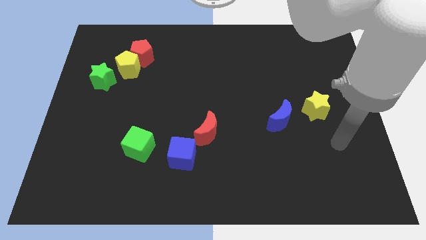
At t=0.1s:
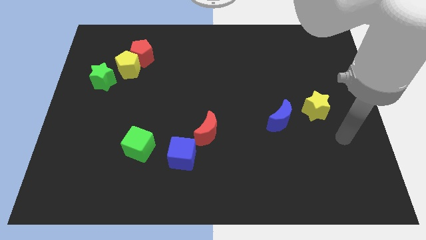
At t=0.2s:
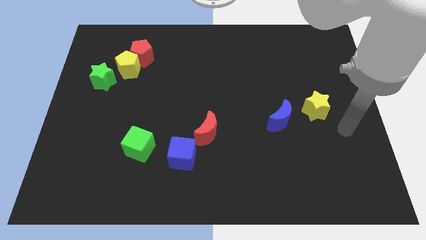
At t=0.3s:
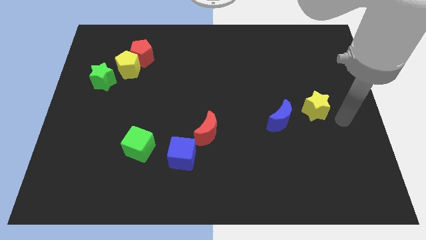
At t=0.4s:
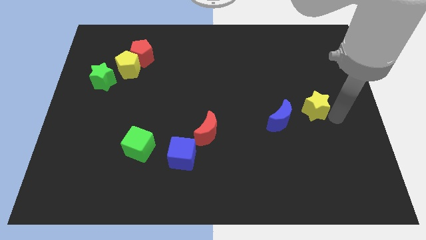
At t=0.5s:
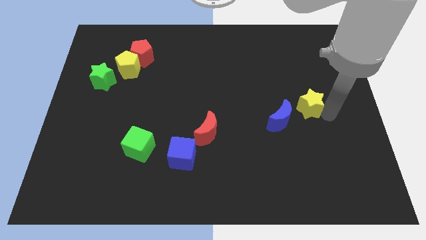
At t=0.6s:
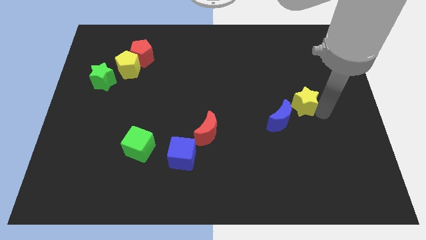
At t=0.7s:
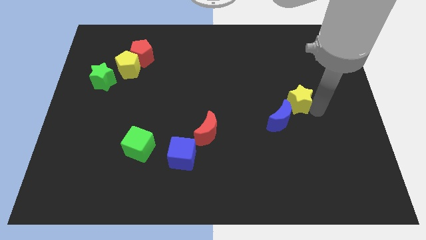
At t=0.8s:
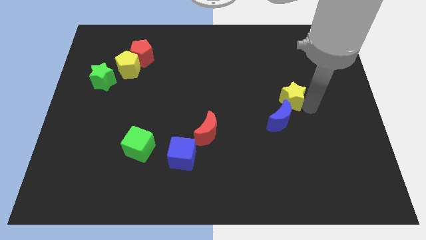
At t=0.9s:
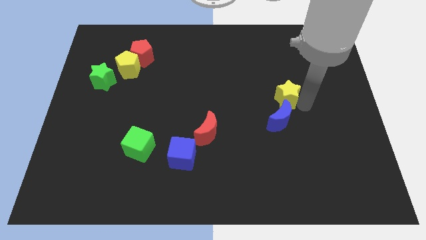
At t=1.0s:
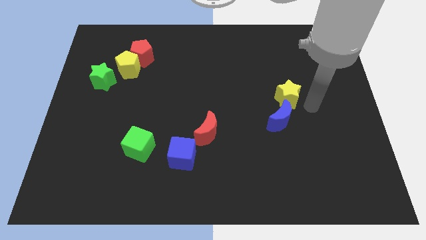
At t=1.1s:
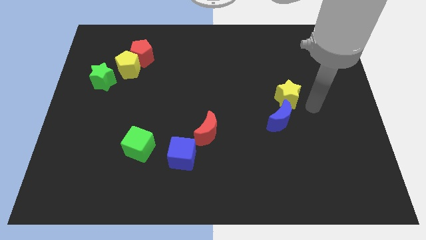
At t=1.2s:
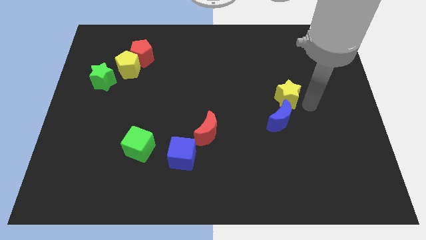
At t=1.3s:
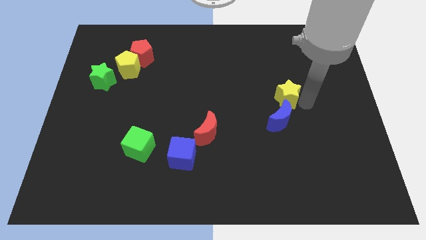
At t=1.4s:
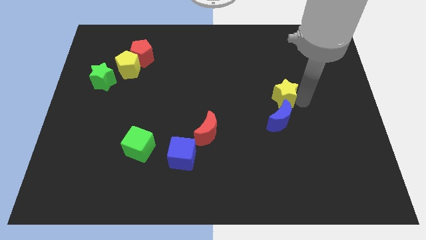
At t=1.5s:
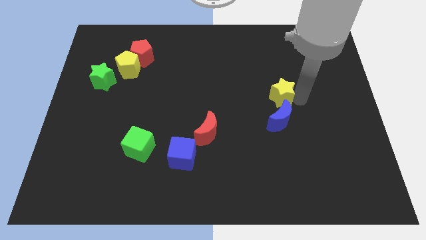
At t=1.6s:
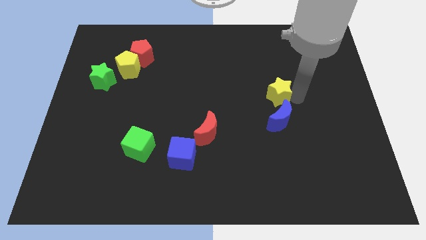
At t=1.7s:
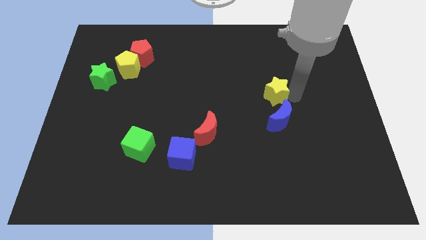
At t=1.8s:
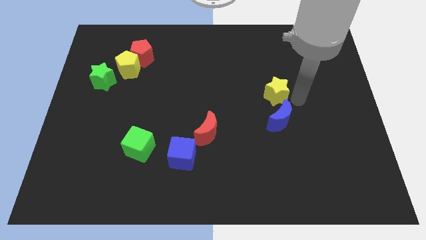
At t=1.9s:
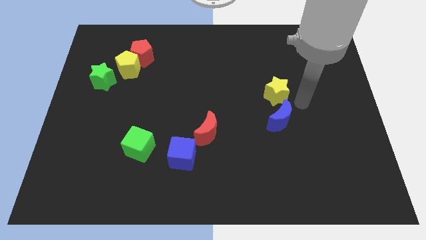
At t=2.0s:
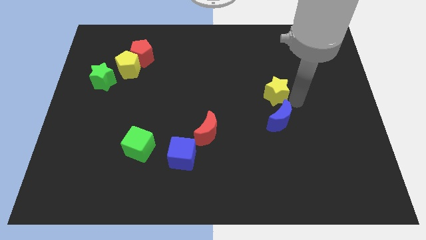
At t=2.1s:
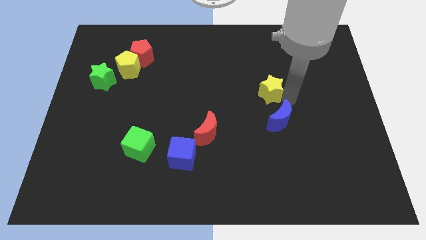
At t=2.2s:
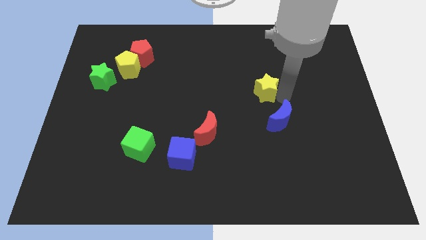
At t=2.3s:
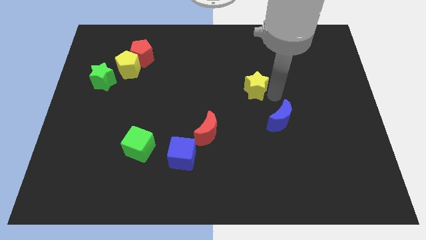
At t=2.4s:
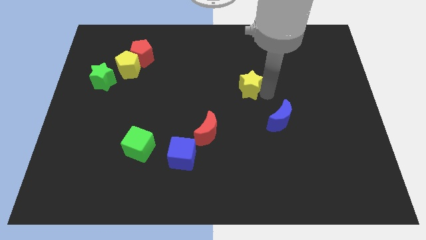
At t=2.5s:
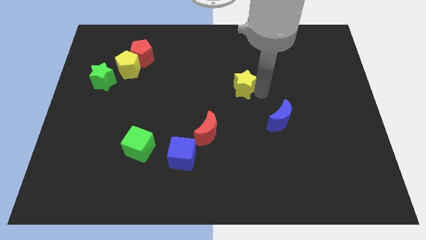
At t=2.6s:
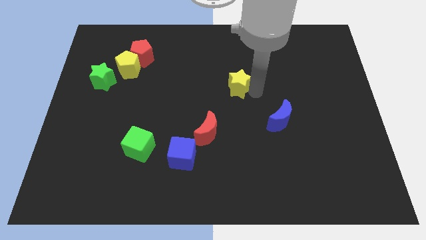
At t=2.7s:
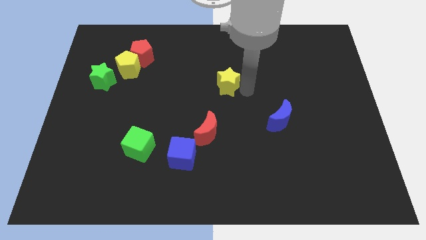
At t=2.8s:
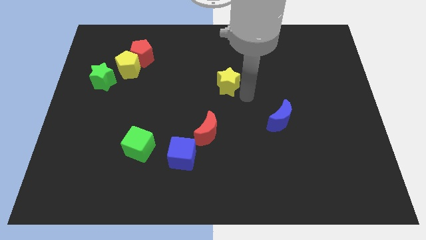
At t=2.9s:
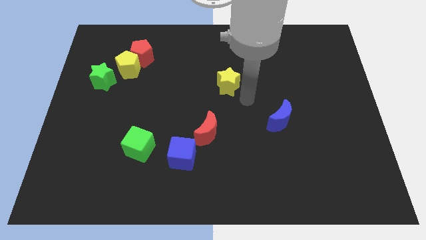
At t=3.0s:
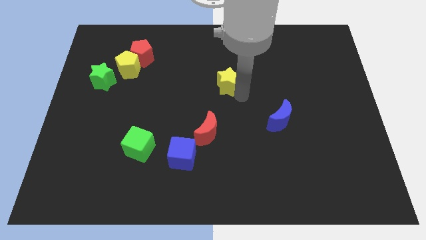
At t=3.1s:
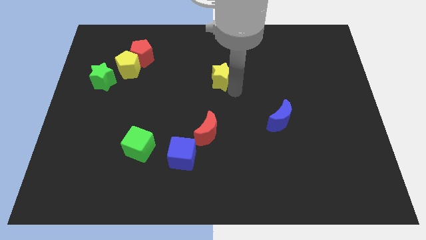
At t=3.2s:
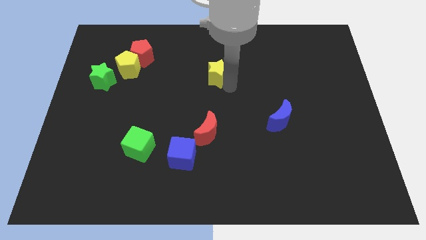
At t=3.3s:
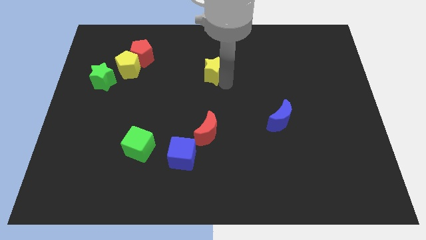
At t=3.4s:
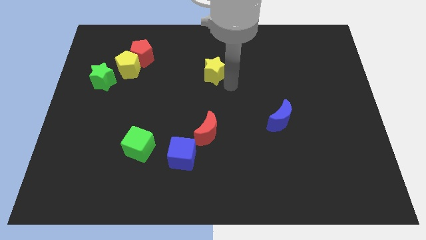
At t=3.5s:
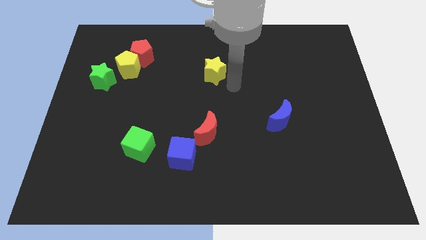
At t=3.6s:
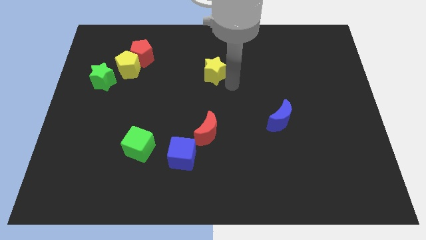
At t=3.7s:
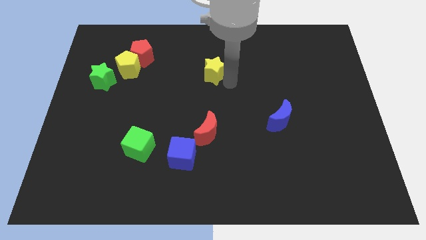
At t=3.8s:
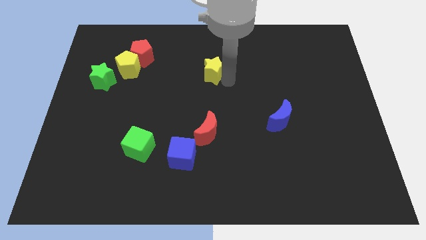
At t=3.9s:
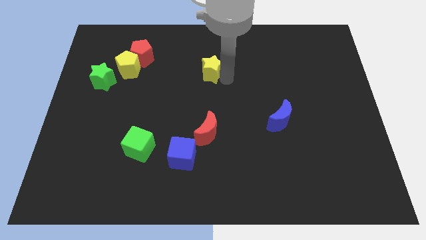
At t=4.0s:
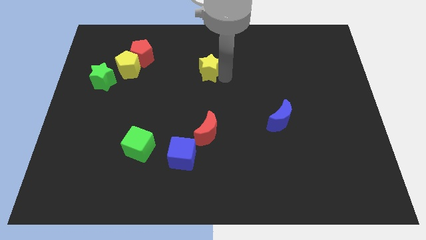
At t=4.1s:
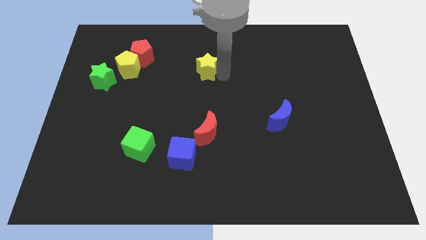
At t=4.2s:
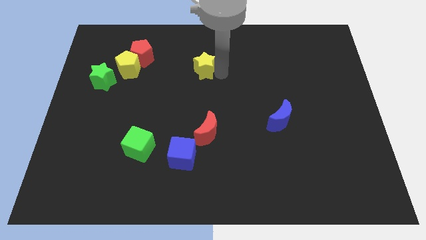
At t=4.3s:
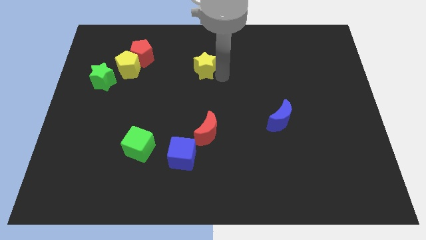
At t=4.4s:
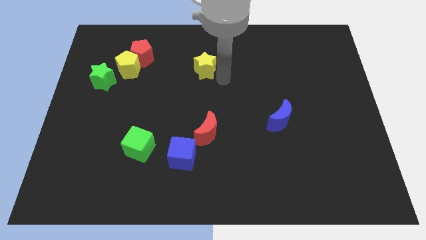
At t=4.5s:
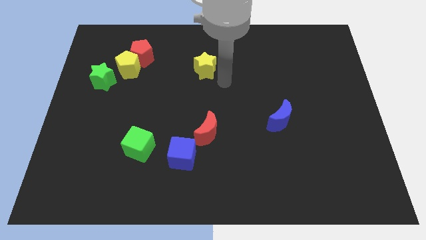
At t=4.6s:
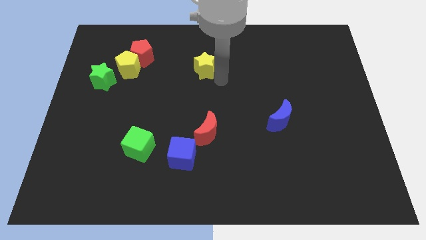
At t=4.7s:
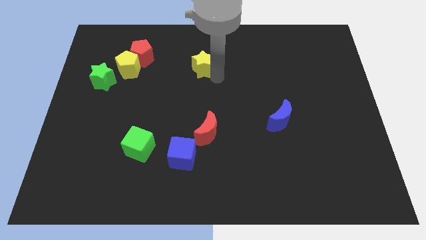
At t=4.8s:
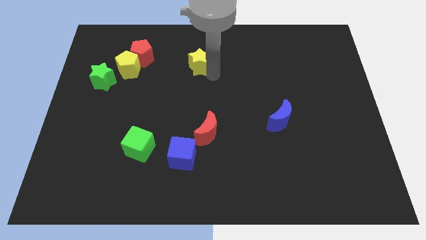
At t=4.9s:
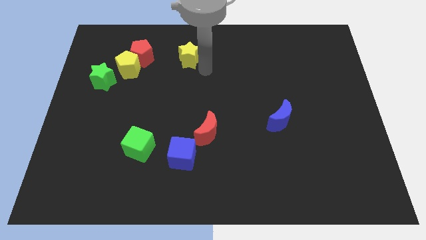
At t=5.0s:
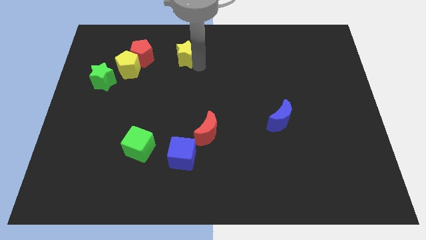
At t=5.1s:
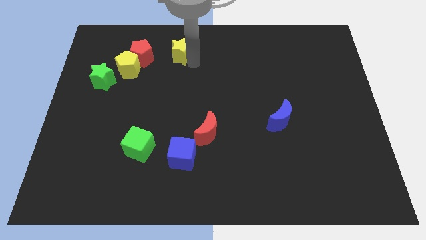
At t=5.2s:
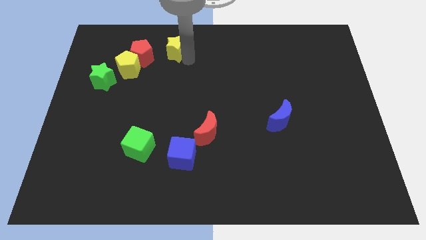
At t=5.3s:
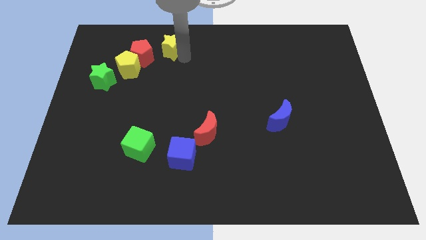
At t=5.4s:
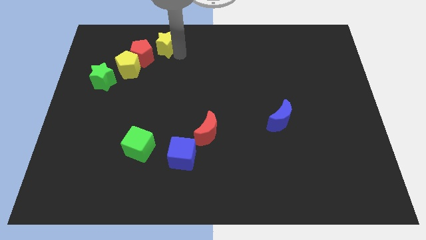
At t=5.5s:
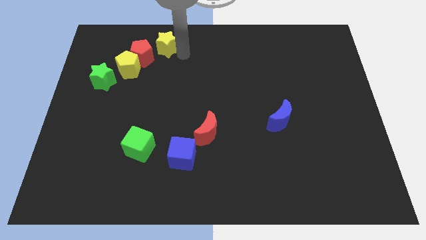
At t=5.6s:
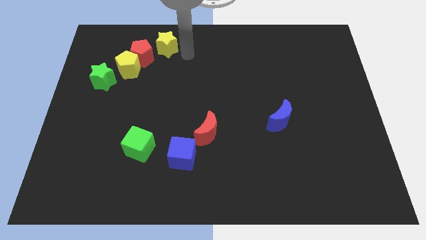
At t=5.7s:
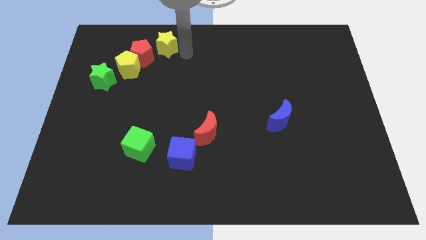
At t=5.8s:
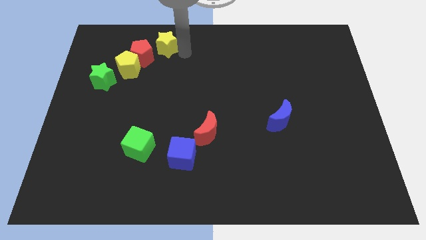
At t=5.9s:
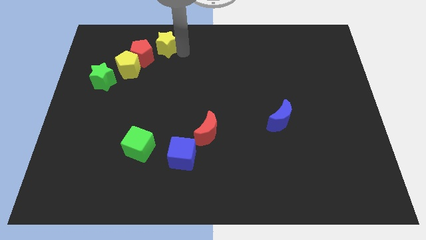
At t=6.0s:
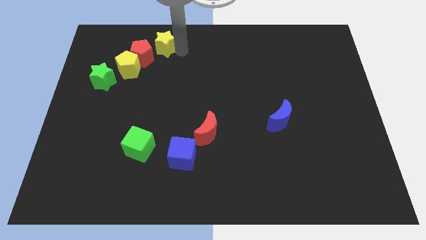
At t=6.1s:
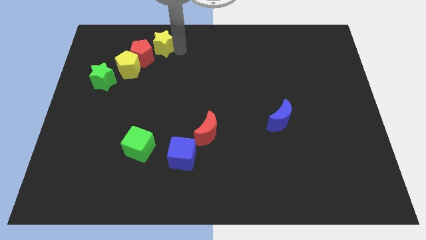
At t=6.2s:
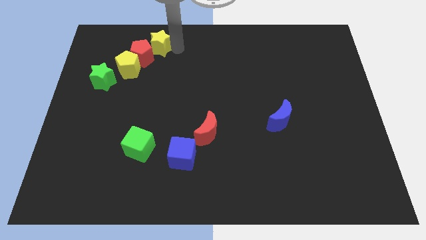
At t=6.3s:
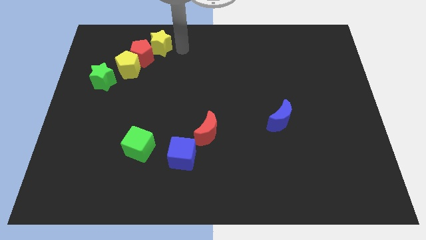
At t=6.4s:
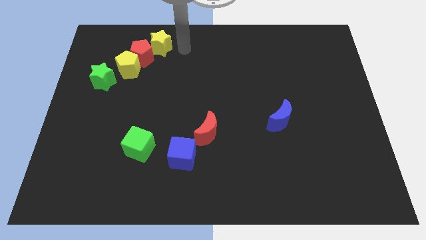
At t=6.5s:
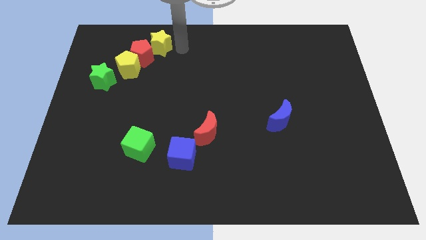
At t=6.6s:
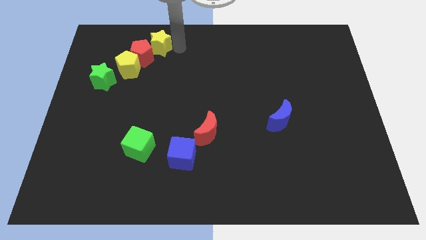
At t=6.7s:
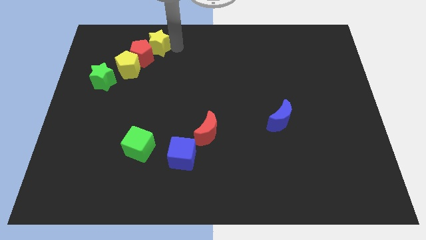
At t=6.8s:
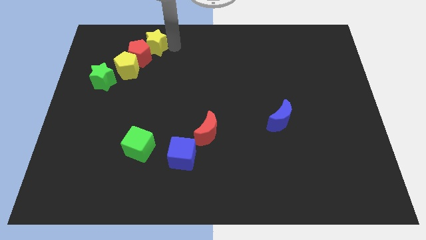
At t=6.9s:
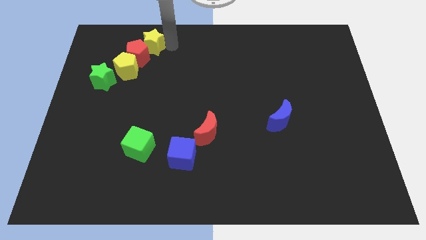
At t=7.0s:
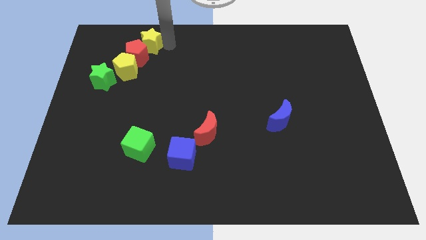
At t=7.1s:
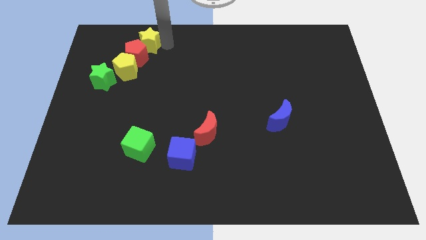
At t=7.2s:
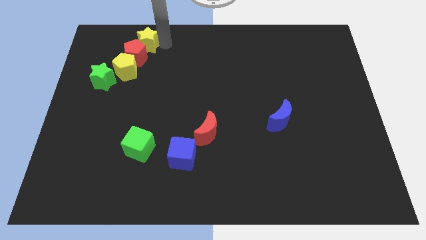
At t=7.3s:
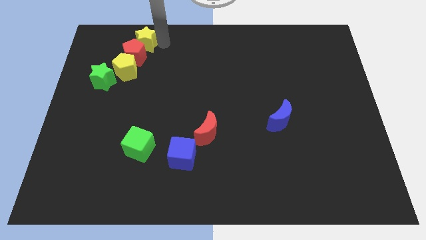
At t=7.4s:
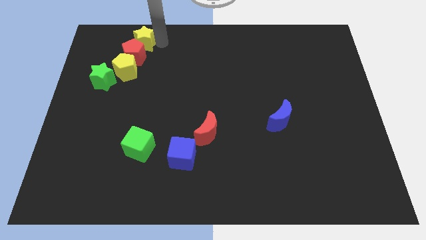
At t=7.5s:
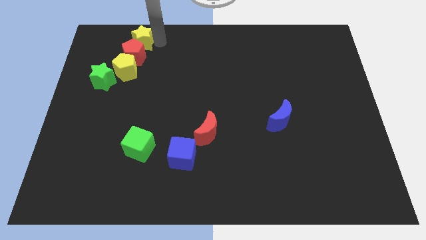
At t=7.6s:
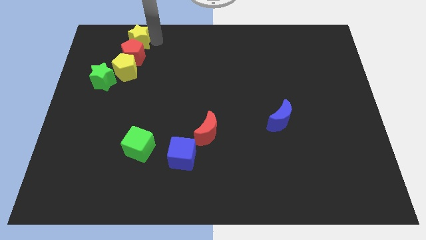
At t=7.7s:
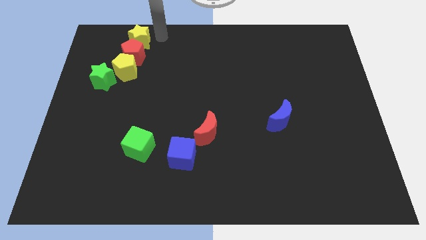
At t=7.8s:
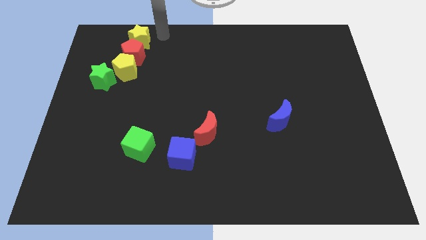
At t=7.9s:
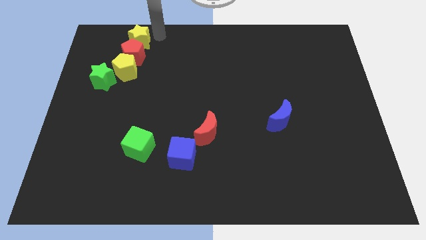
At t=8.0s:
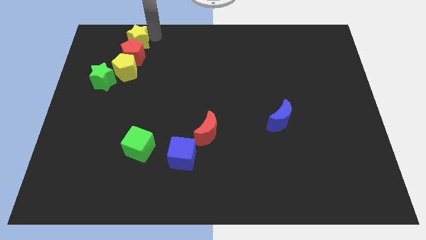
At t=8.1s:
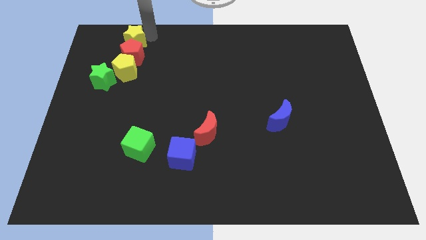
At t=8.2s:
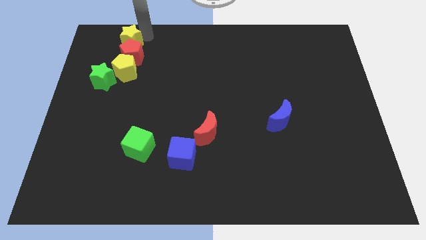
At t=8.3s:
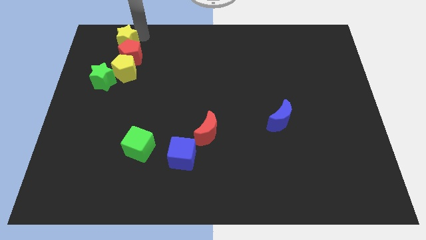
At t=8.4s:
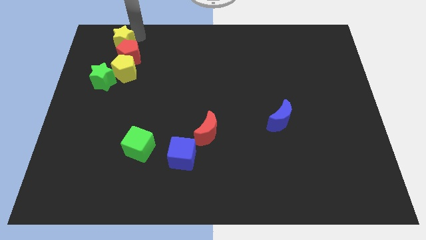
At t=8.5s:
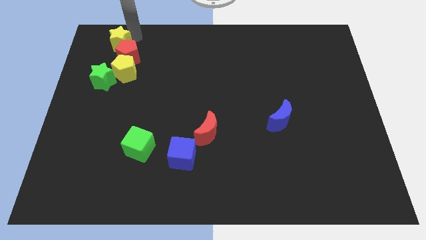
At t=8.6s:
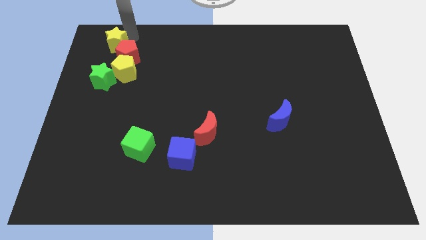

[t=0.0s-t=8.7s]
move the yellow star to the left of the red pentagon
